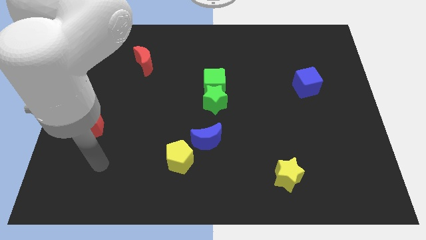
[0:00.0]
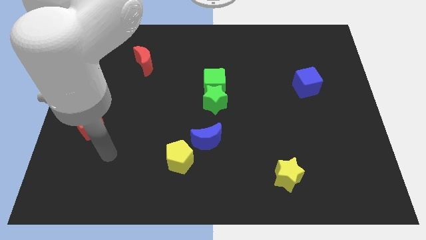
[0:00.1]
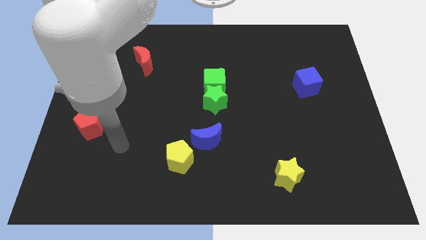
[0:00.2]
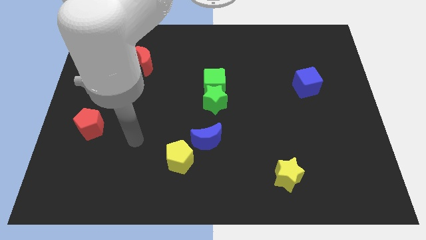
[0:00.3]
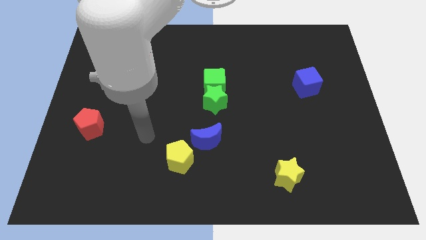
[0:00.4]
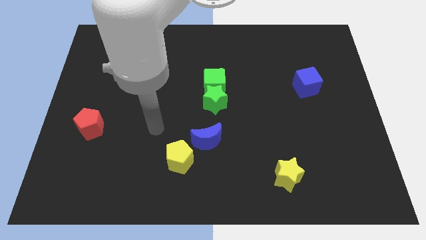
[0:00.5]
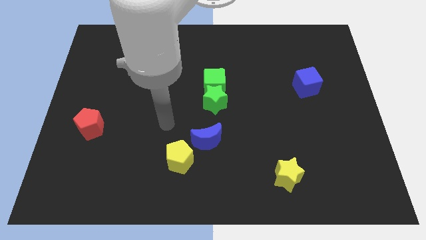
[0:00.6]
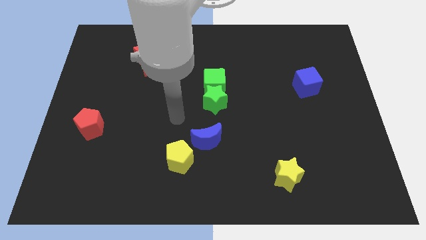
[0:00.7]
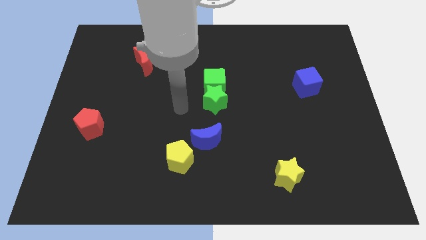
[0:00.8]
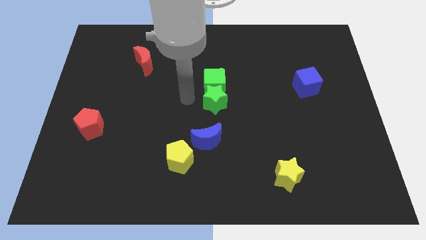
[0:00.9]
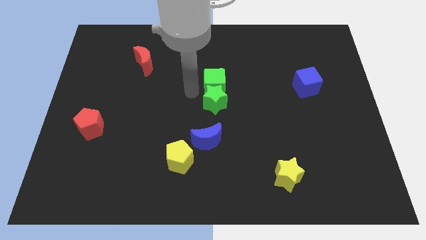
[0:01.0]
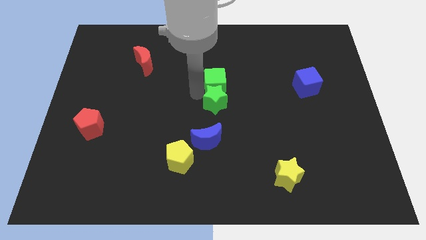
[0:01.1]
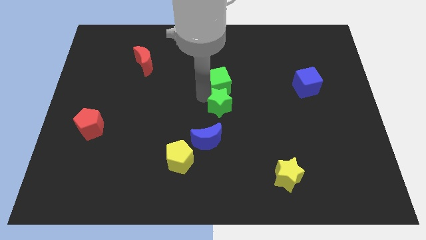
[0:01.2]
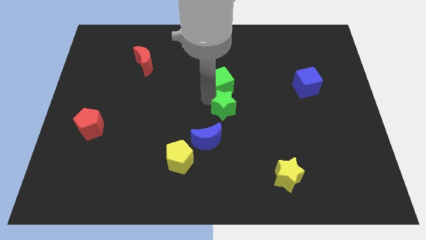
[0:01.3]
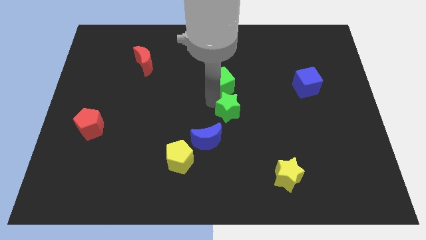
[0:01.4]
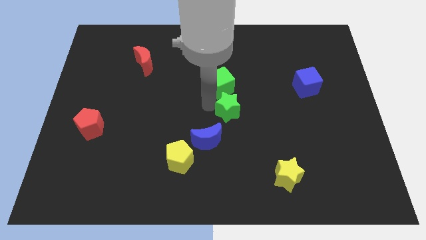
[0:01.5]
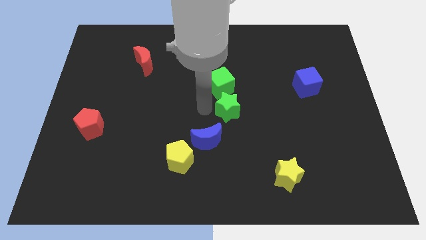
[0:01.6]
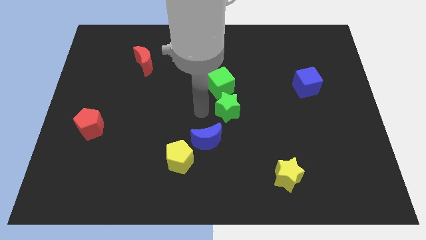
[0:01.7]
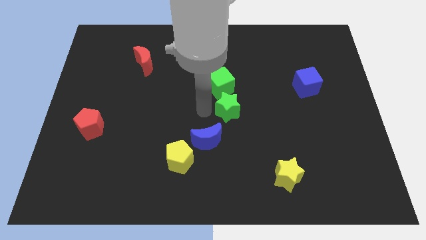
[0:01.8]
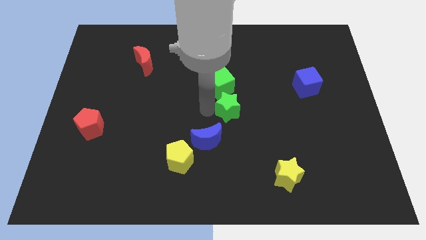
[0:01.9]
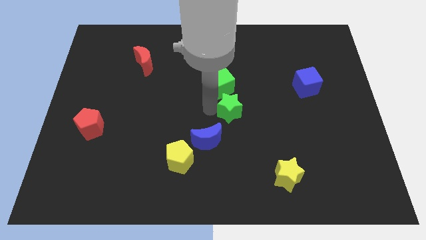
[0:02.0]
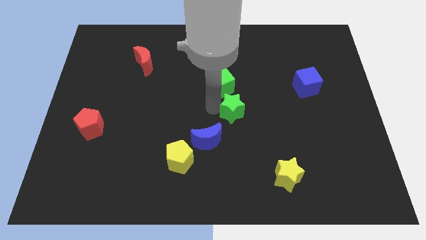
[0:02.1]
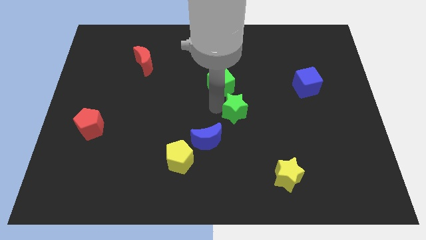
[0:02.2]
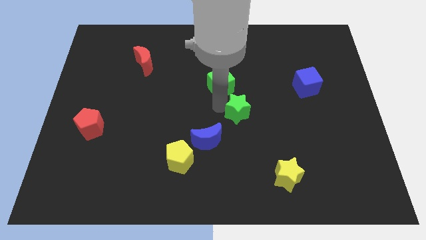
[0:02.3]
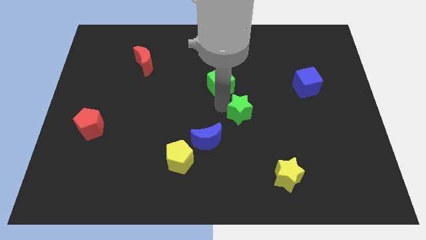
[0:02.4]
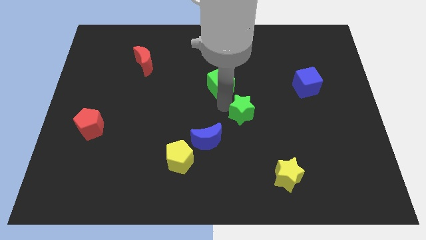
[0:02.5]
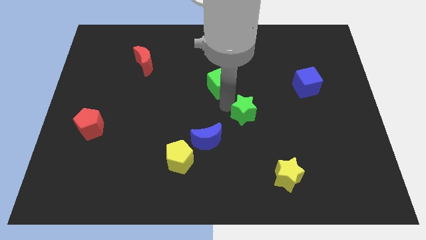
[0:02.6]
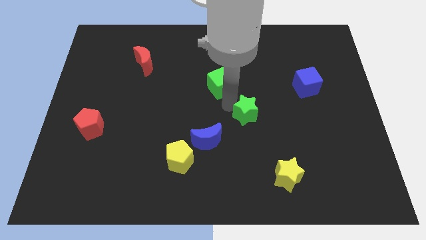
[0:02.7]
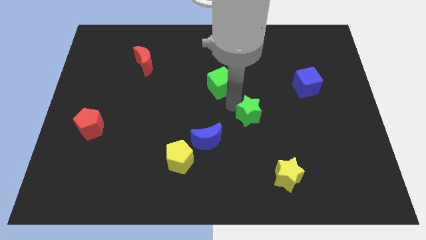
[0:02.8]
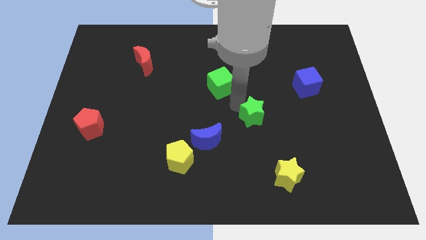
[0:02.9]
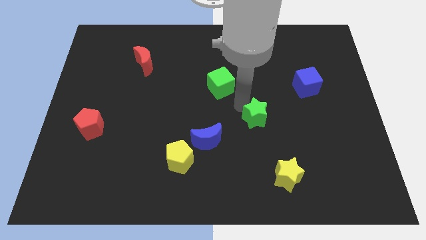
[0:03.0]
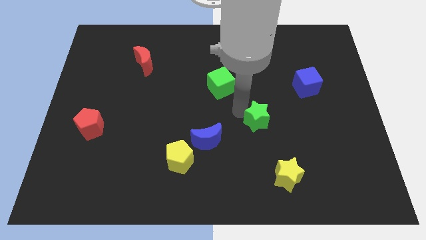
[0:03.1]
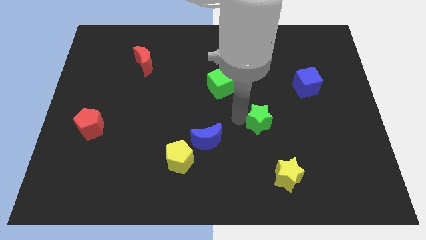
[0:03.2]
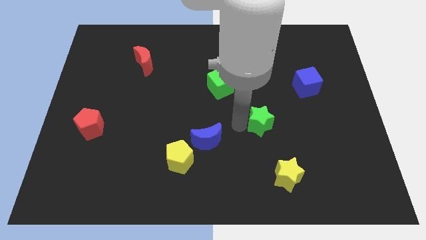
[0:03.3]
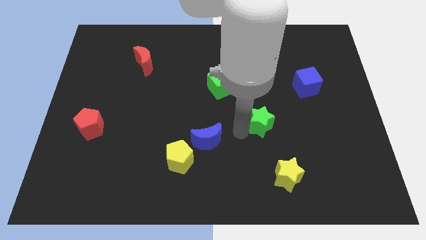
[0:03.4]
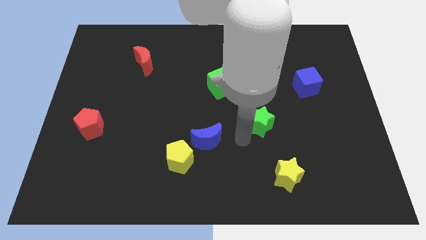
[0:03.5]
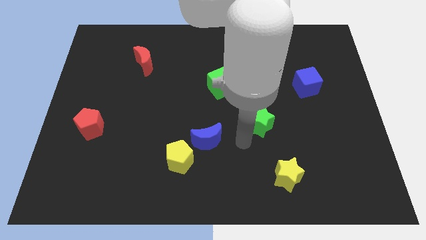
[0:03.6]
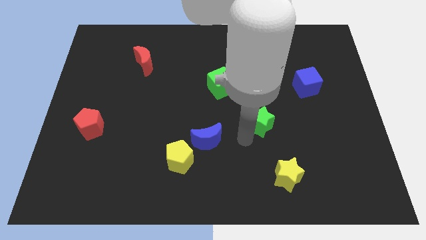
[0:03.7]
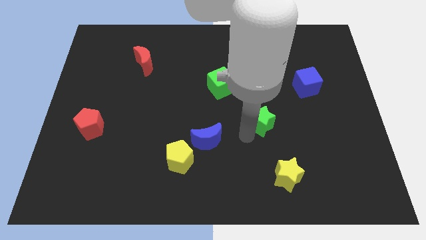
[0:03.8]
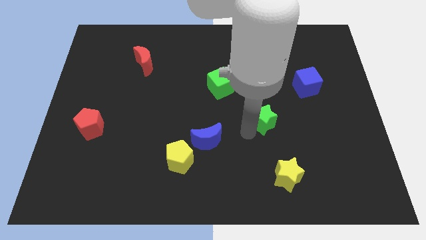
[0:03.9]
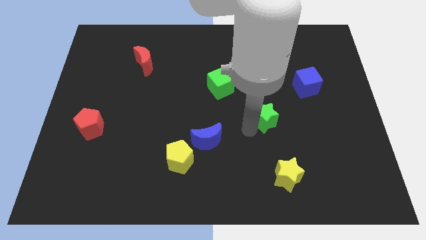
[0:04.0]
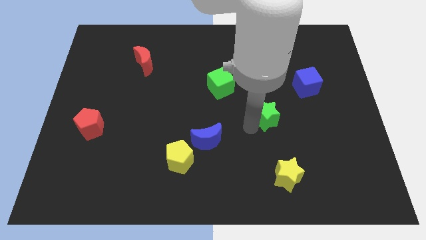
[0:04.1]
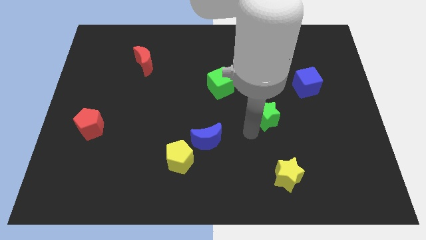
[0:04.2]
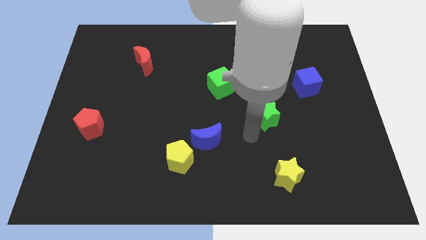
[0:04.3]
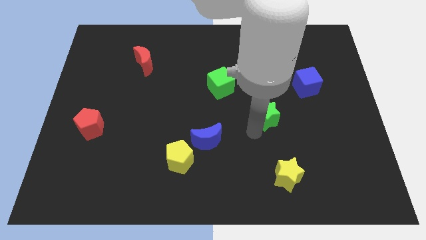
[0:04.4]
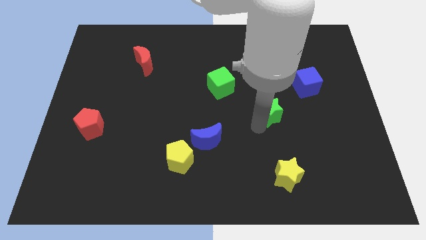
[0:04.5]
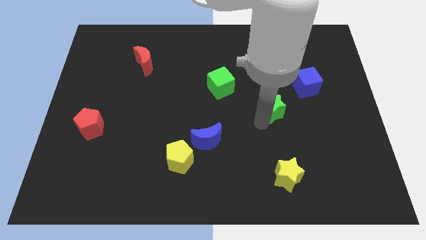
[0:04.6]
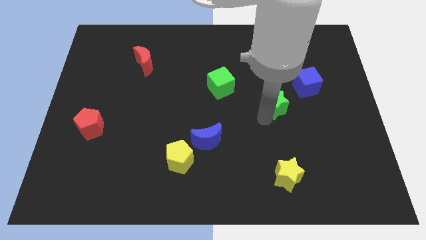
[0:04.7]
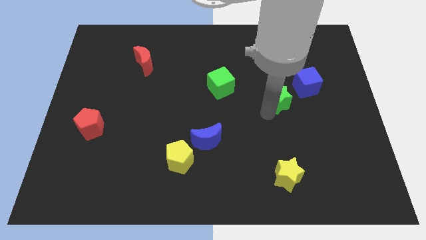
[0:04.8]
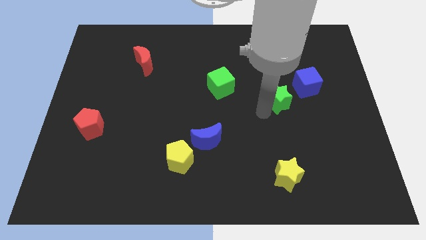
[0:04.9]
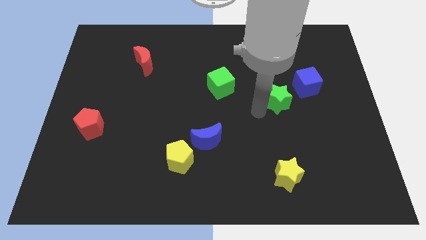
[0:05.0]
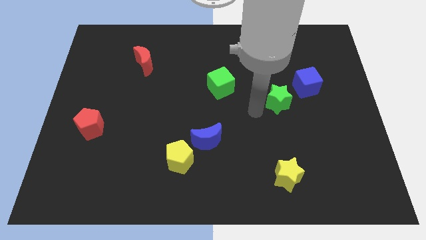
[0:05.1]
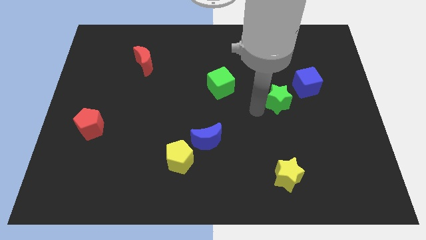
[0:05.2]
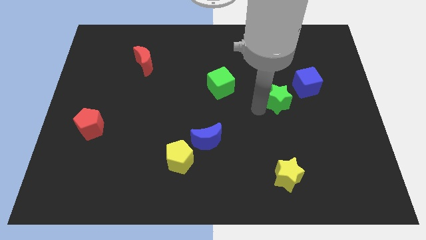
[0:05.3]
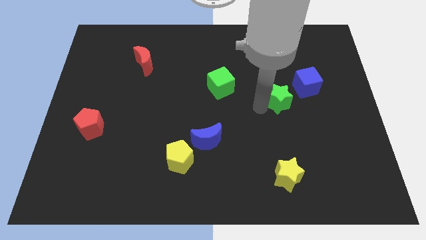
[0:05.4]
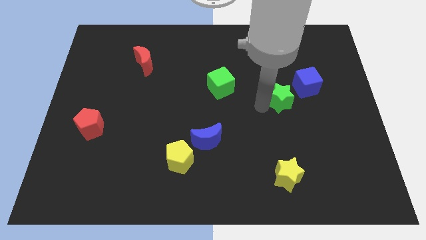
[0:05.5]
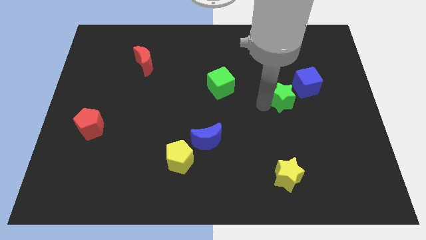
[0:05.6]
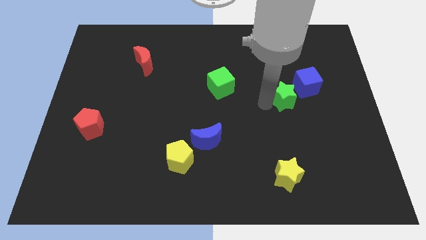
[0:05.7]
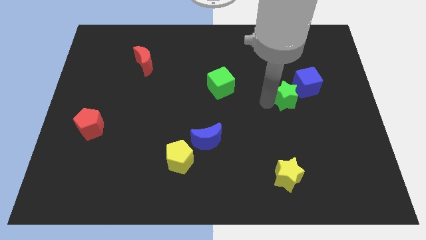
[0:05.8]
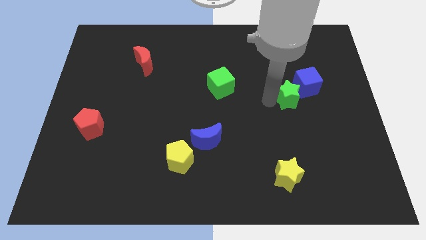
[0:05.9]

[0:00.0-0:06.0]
move the green star close to the blue cube
